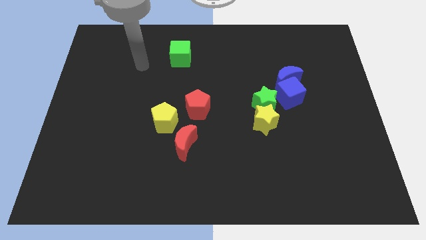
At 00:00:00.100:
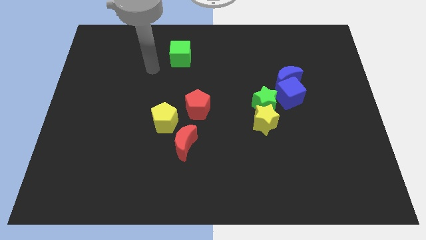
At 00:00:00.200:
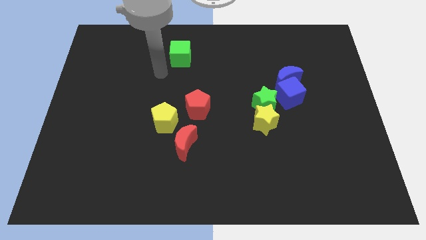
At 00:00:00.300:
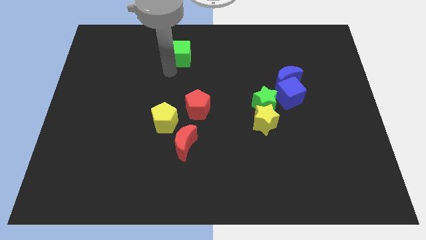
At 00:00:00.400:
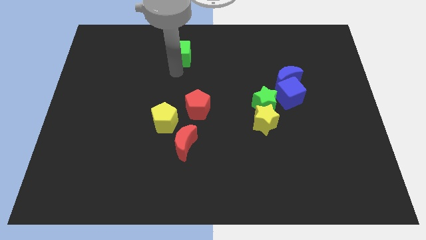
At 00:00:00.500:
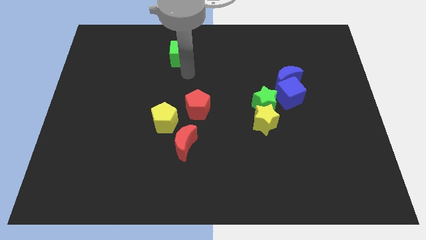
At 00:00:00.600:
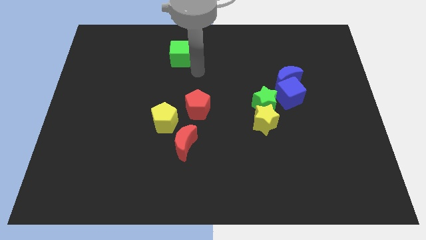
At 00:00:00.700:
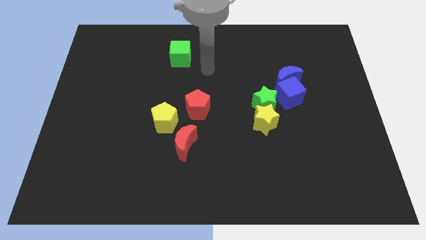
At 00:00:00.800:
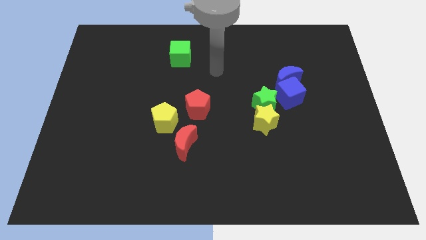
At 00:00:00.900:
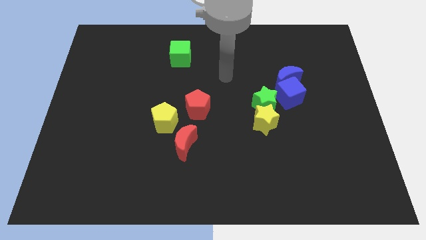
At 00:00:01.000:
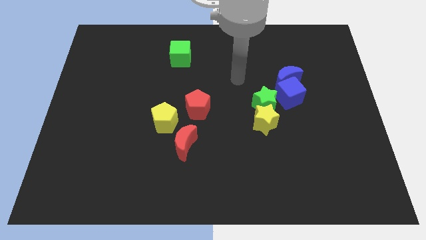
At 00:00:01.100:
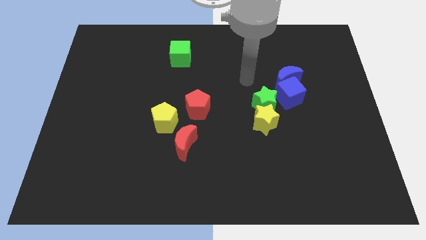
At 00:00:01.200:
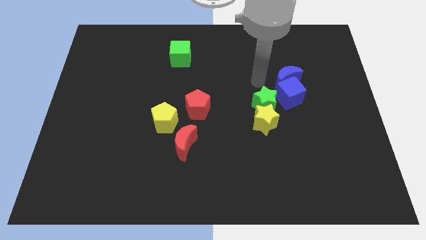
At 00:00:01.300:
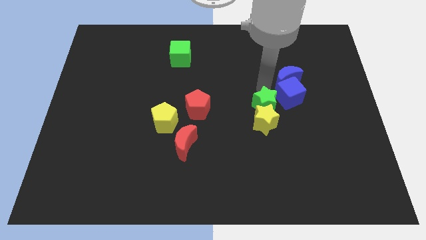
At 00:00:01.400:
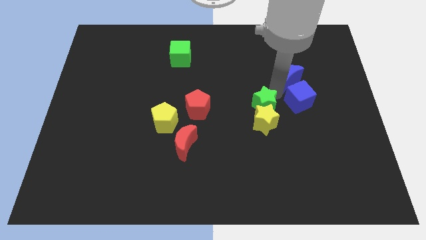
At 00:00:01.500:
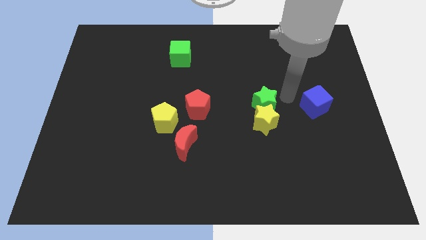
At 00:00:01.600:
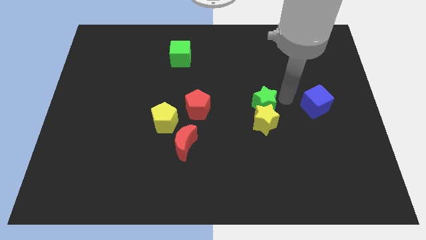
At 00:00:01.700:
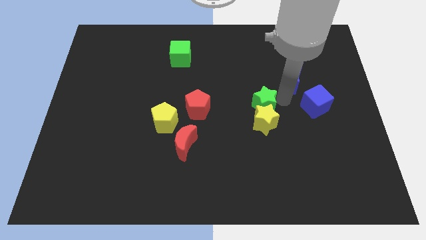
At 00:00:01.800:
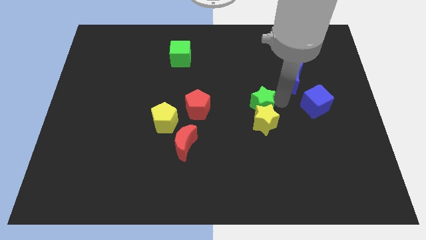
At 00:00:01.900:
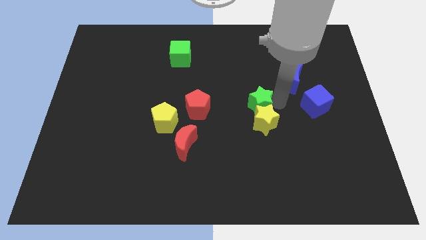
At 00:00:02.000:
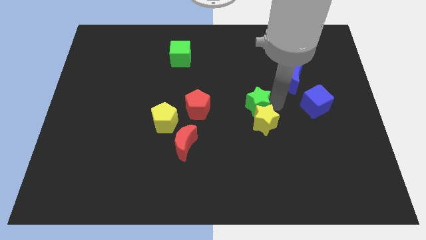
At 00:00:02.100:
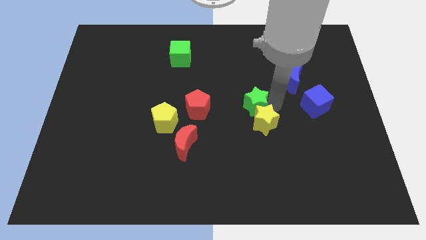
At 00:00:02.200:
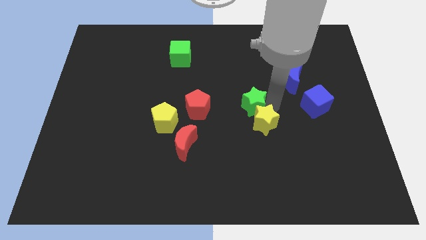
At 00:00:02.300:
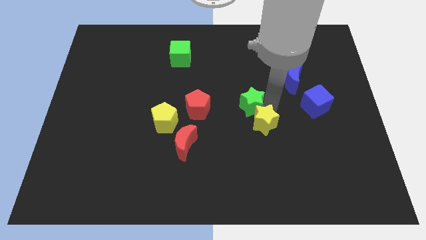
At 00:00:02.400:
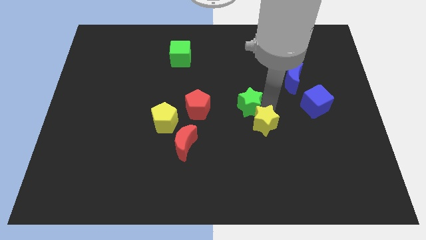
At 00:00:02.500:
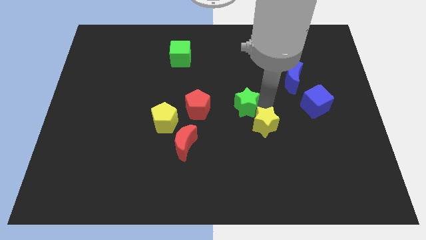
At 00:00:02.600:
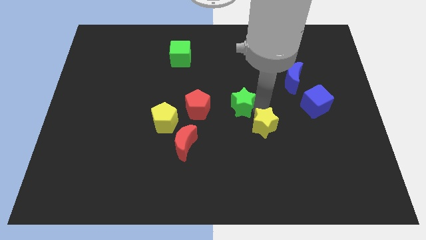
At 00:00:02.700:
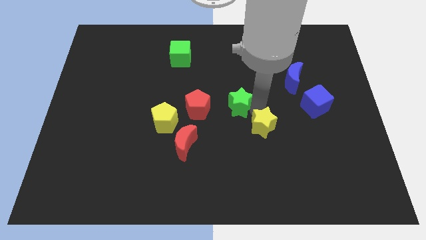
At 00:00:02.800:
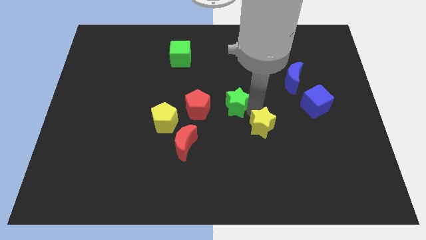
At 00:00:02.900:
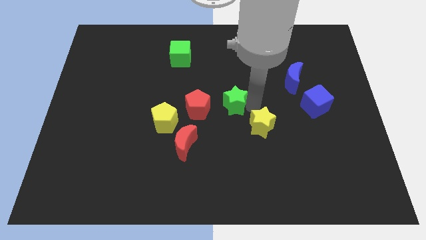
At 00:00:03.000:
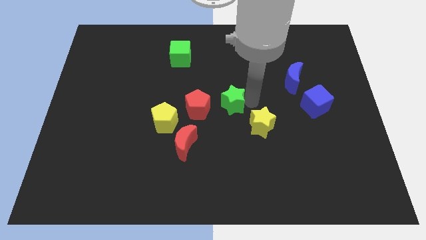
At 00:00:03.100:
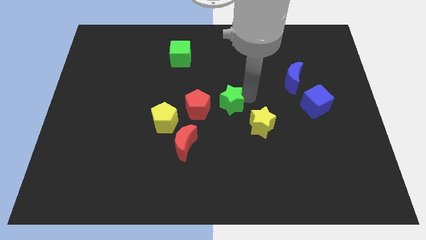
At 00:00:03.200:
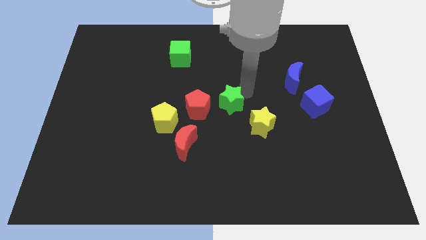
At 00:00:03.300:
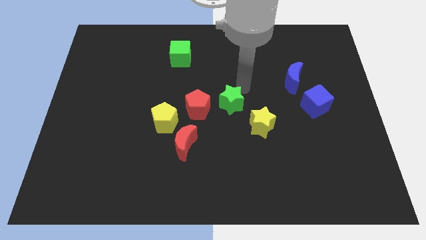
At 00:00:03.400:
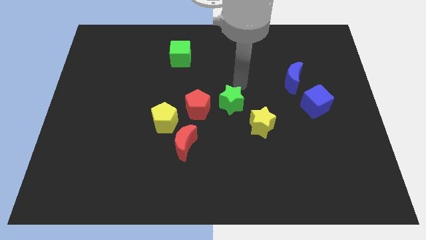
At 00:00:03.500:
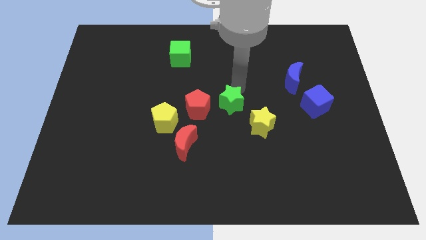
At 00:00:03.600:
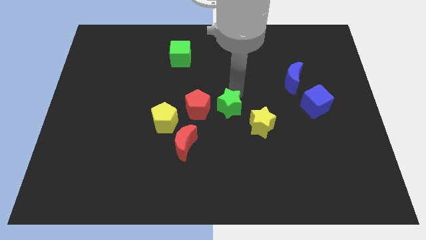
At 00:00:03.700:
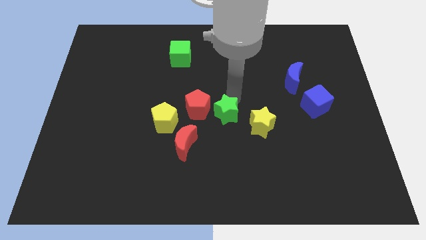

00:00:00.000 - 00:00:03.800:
slightly move the green star downwards and to the left diagonally

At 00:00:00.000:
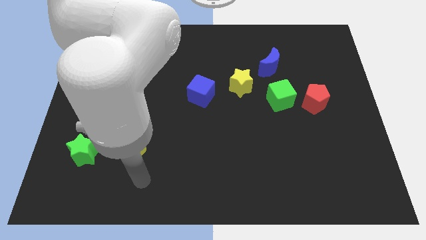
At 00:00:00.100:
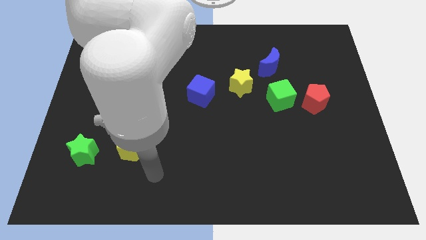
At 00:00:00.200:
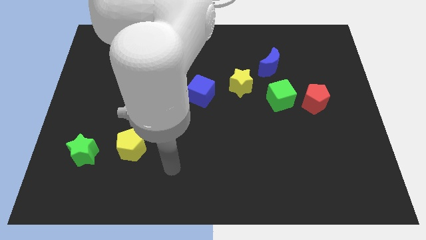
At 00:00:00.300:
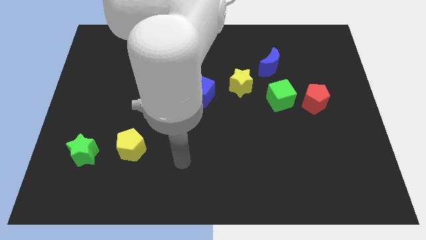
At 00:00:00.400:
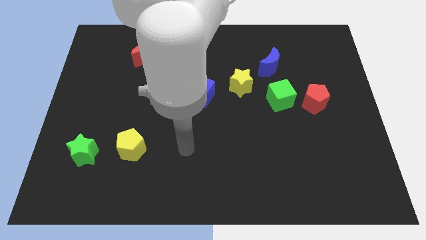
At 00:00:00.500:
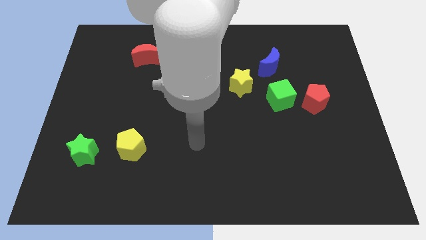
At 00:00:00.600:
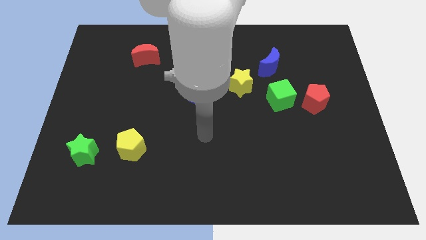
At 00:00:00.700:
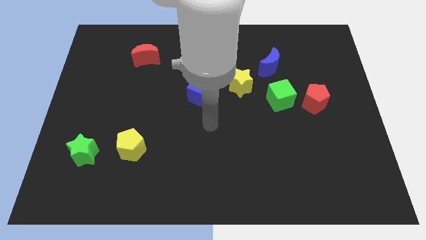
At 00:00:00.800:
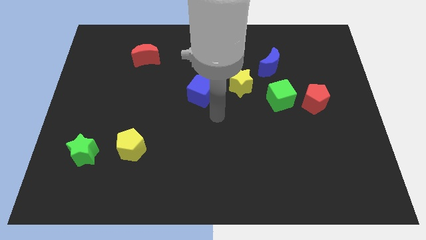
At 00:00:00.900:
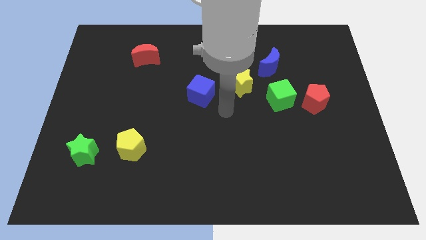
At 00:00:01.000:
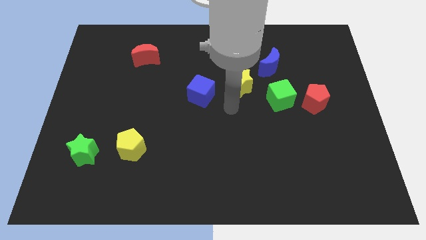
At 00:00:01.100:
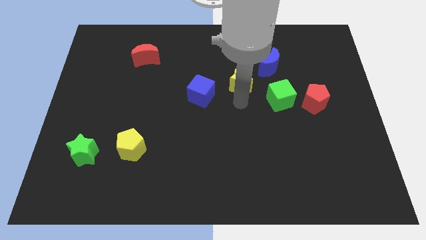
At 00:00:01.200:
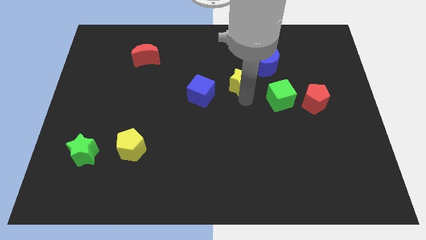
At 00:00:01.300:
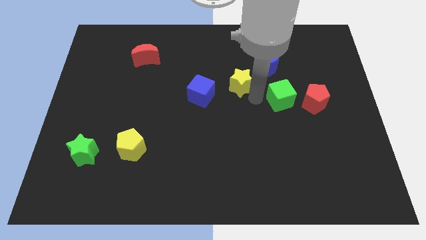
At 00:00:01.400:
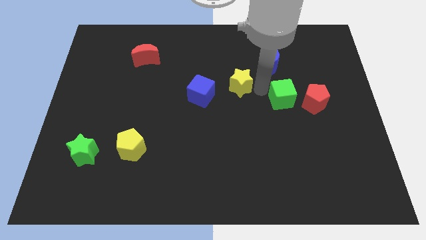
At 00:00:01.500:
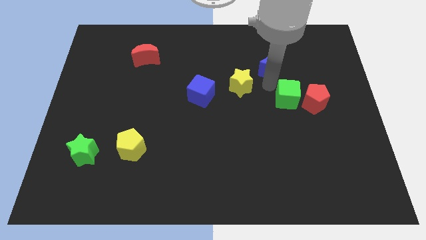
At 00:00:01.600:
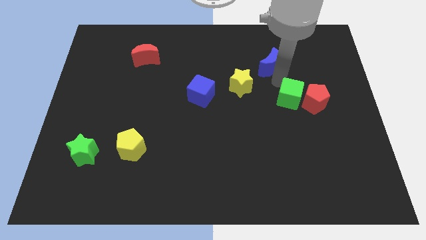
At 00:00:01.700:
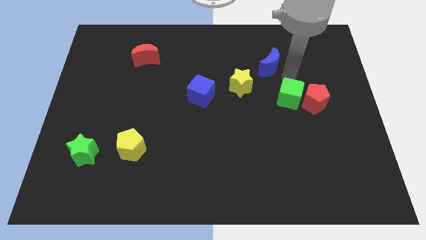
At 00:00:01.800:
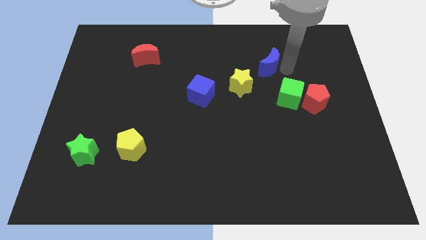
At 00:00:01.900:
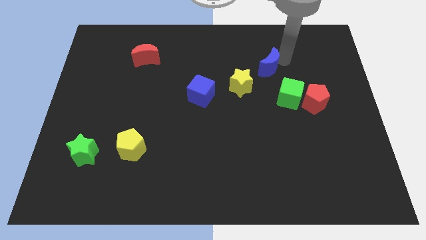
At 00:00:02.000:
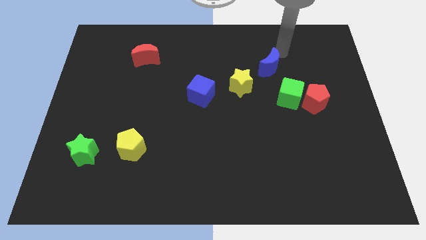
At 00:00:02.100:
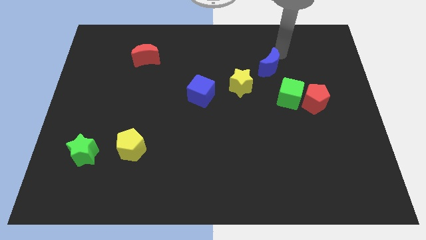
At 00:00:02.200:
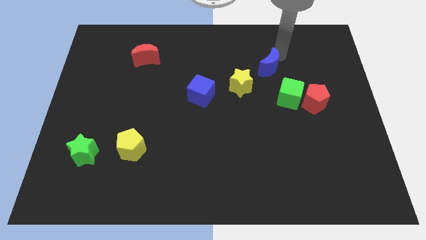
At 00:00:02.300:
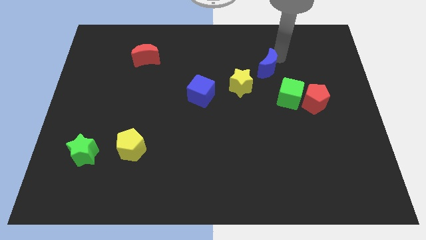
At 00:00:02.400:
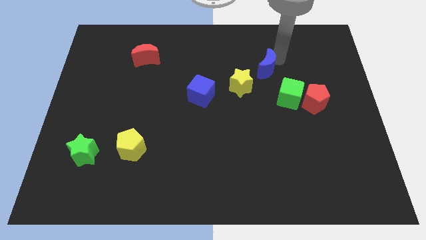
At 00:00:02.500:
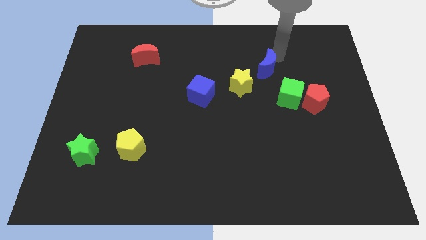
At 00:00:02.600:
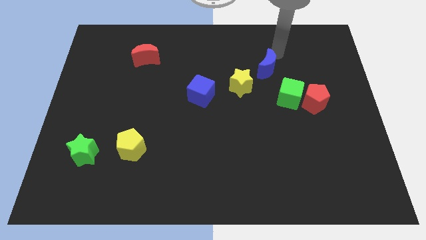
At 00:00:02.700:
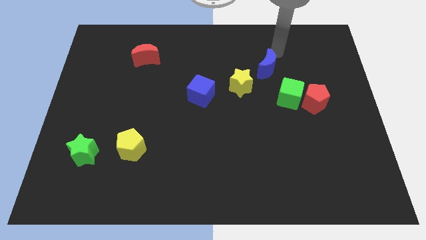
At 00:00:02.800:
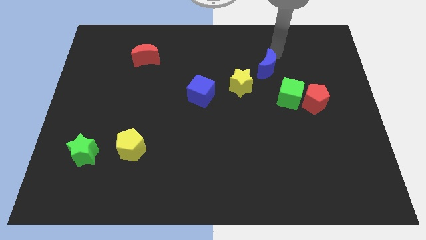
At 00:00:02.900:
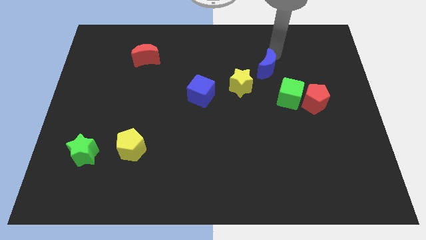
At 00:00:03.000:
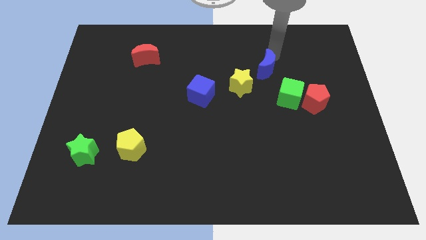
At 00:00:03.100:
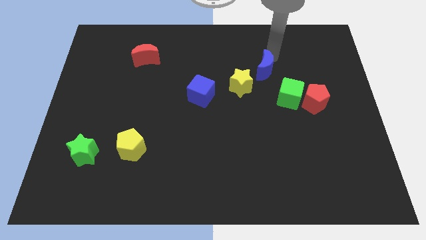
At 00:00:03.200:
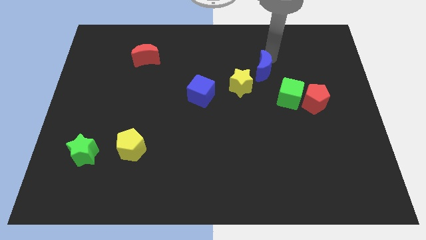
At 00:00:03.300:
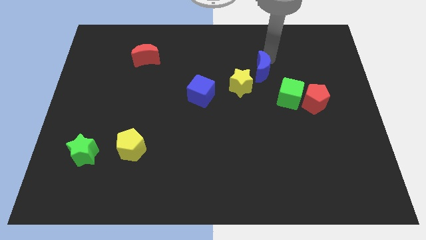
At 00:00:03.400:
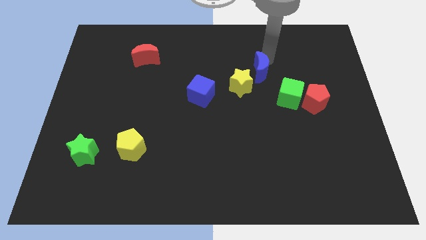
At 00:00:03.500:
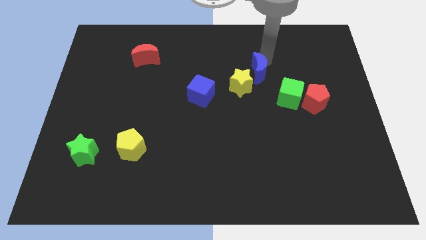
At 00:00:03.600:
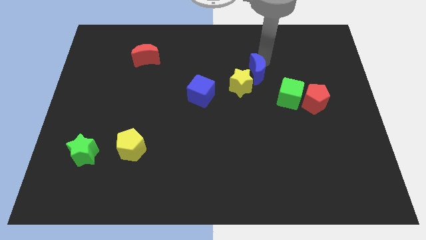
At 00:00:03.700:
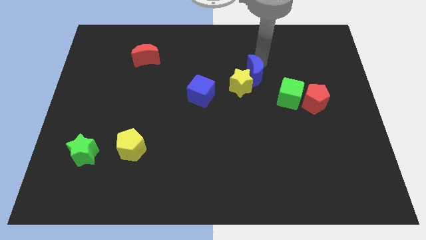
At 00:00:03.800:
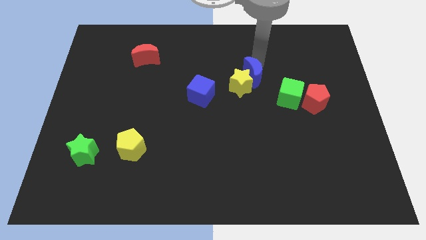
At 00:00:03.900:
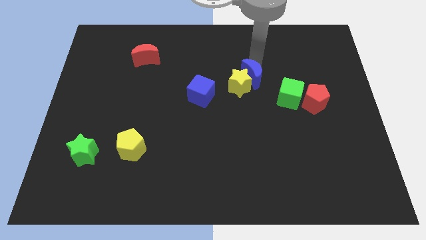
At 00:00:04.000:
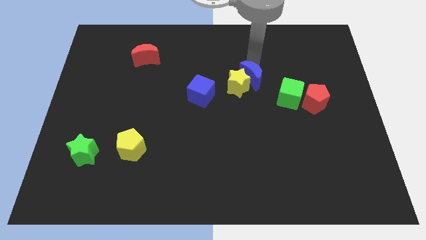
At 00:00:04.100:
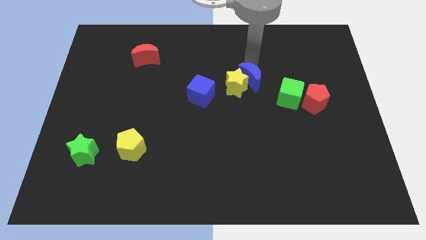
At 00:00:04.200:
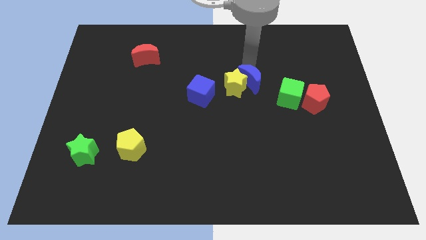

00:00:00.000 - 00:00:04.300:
move the blue moon somewhat diagonally downwards and left

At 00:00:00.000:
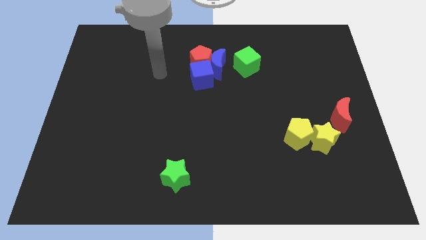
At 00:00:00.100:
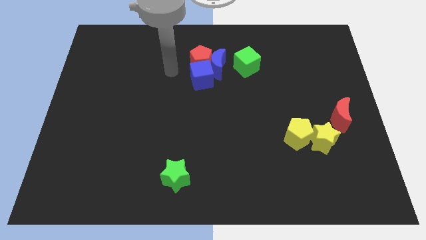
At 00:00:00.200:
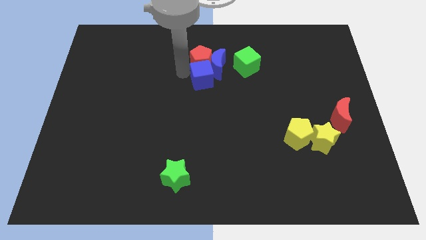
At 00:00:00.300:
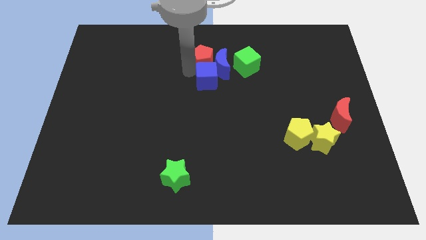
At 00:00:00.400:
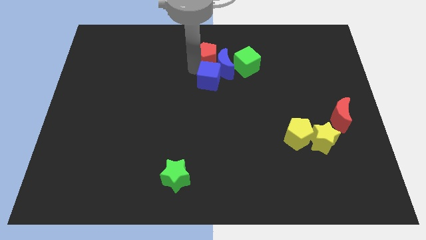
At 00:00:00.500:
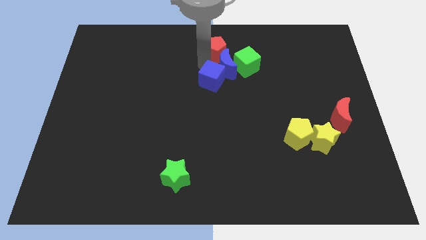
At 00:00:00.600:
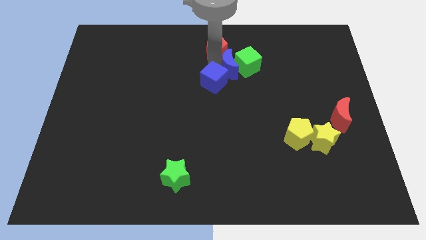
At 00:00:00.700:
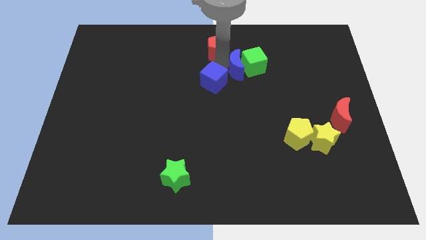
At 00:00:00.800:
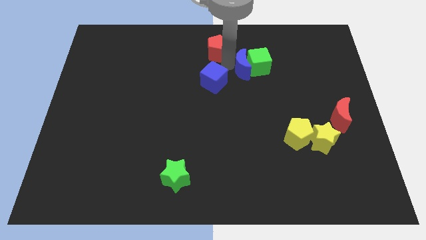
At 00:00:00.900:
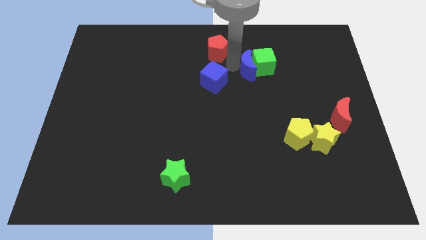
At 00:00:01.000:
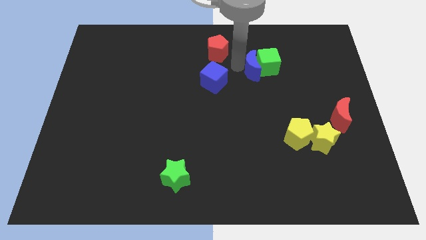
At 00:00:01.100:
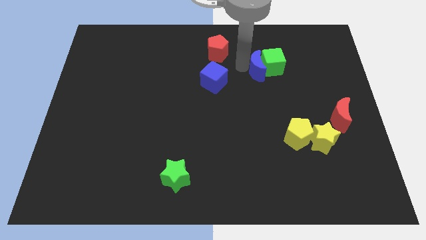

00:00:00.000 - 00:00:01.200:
slightly move the green cube to the right
